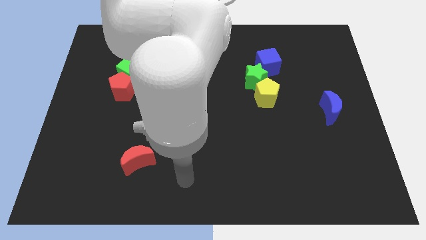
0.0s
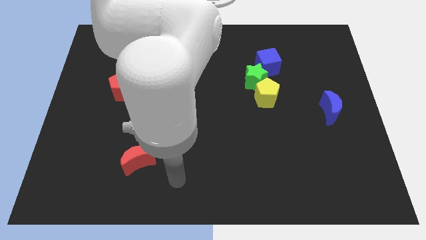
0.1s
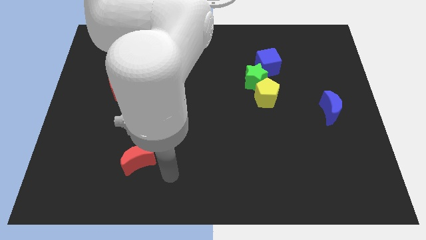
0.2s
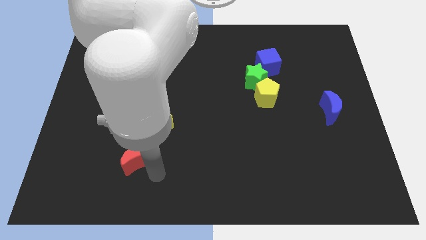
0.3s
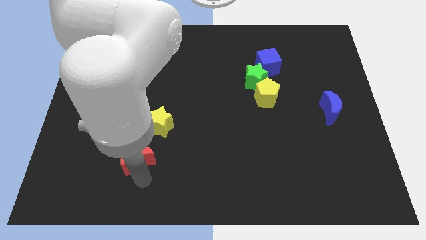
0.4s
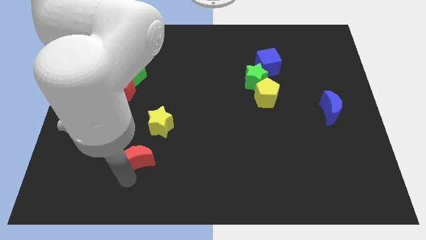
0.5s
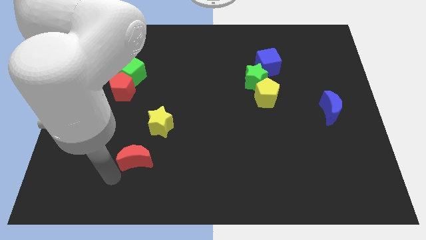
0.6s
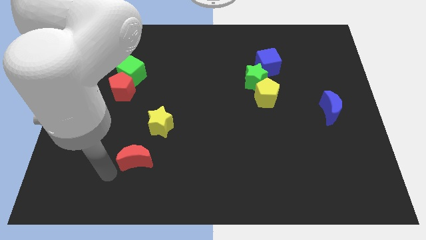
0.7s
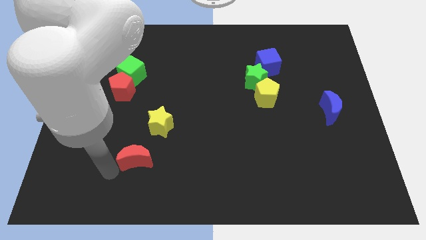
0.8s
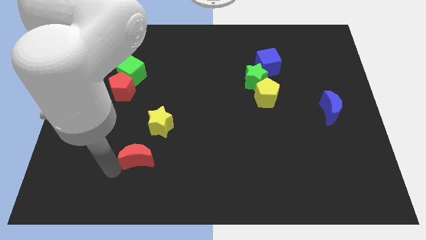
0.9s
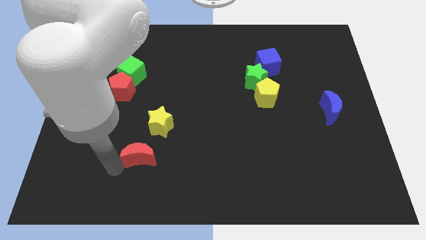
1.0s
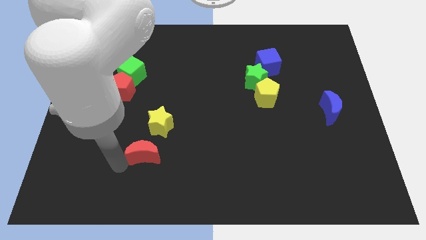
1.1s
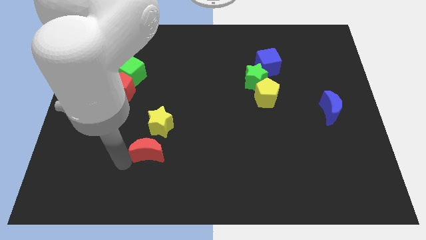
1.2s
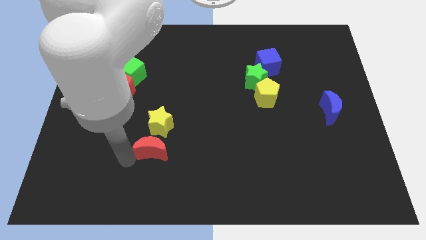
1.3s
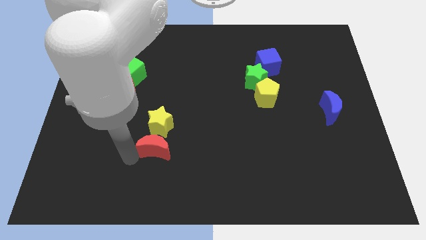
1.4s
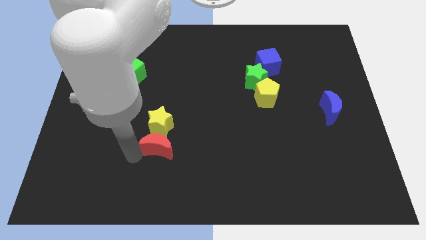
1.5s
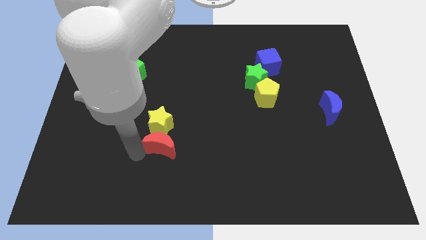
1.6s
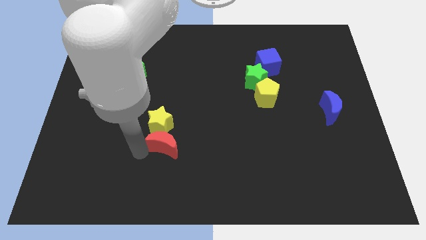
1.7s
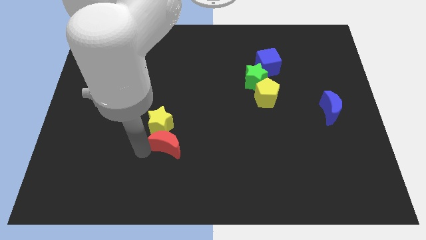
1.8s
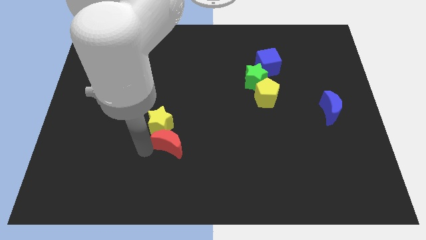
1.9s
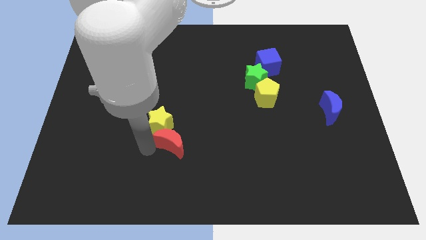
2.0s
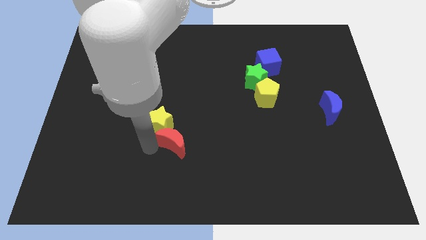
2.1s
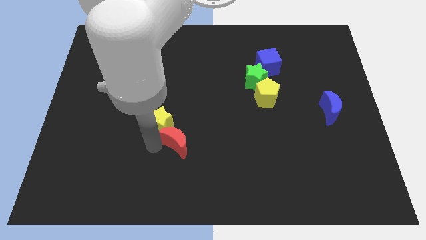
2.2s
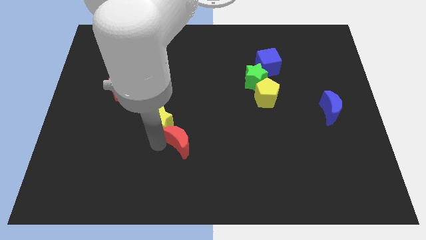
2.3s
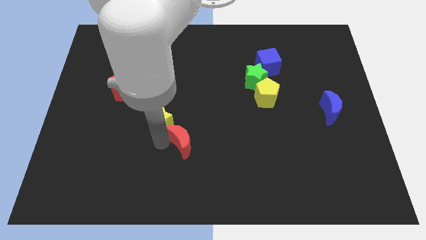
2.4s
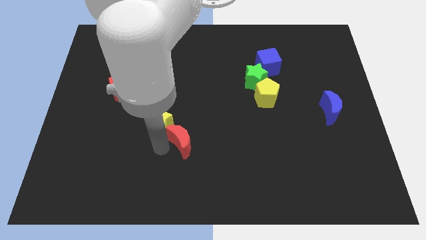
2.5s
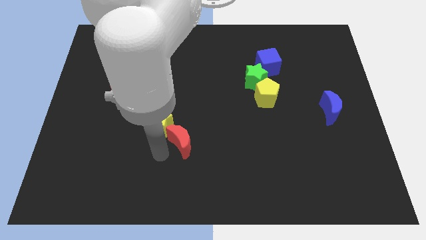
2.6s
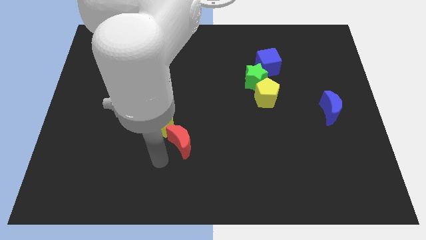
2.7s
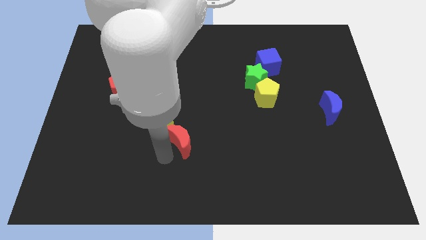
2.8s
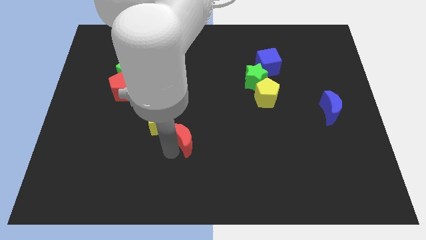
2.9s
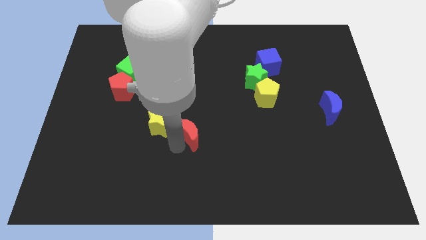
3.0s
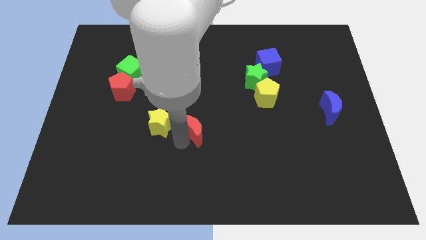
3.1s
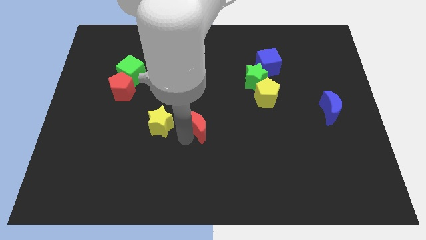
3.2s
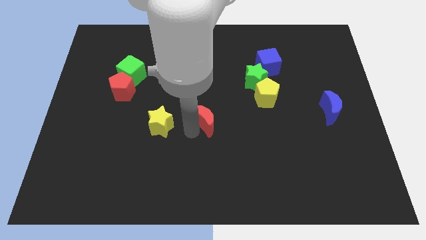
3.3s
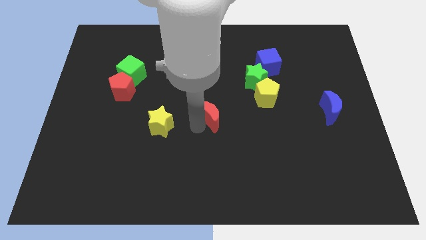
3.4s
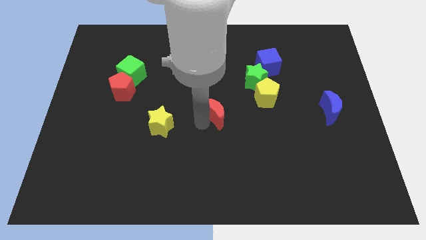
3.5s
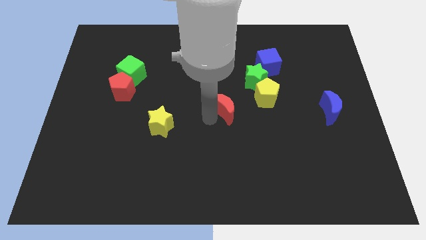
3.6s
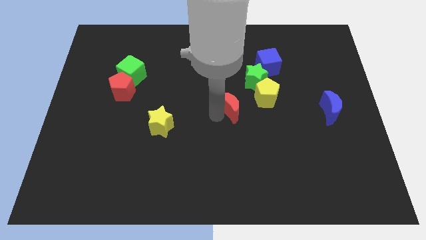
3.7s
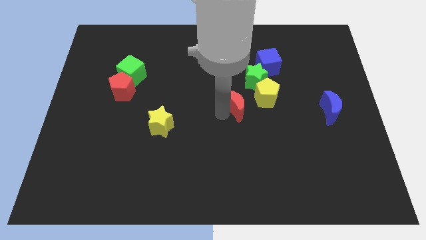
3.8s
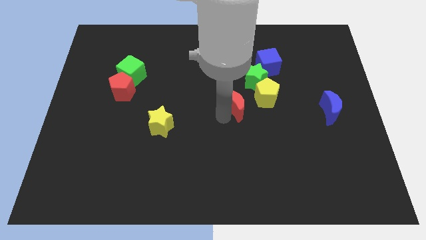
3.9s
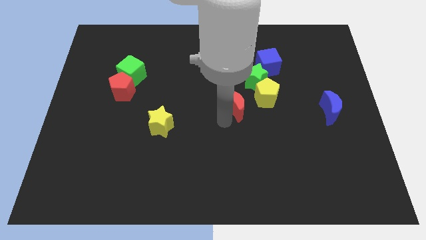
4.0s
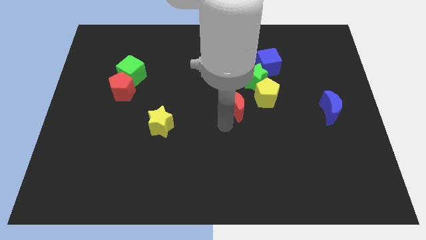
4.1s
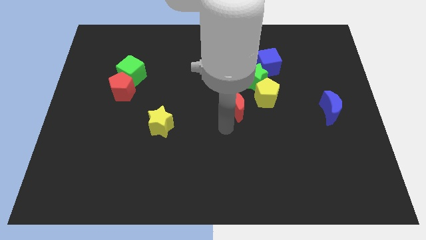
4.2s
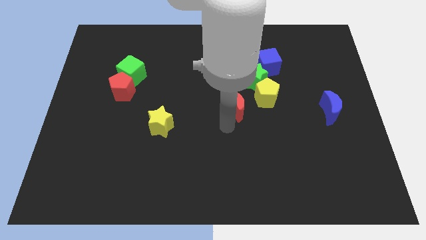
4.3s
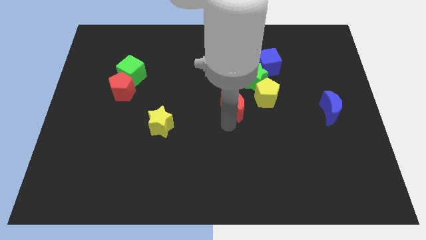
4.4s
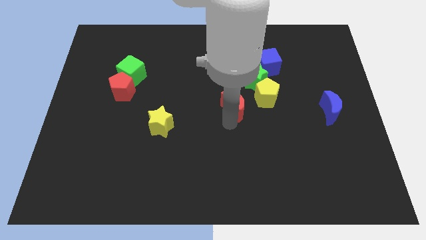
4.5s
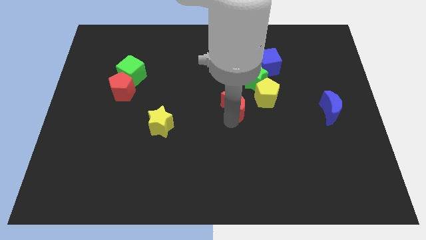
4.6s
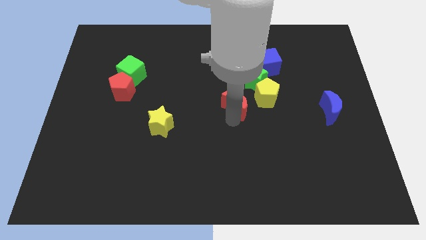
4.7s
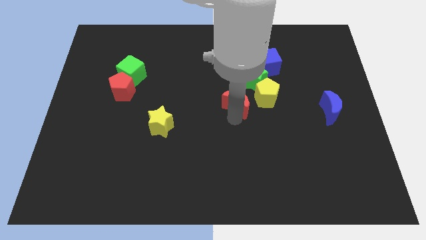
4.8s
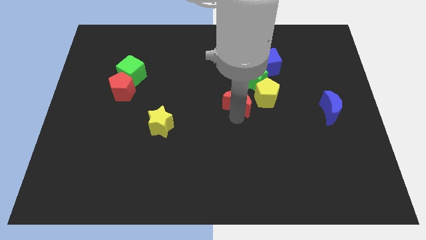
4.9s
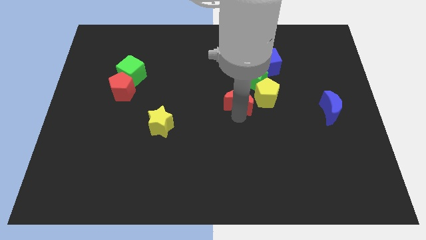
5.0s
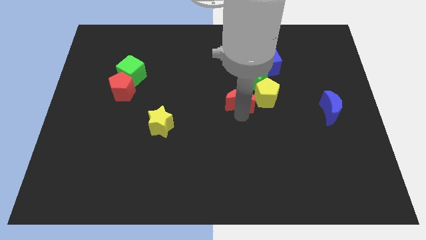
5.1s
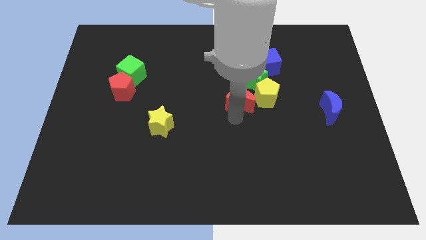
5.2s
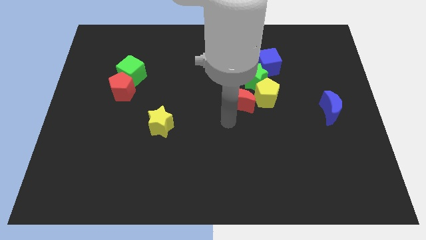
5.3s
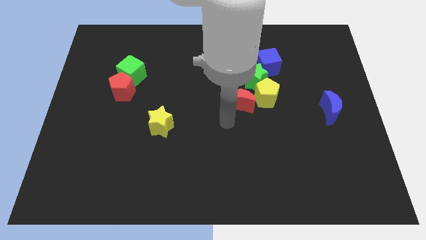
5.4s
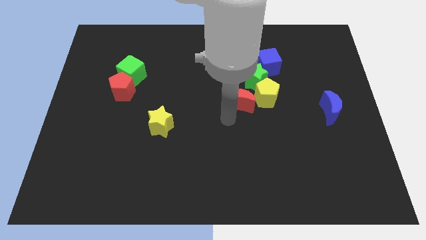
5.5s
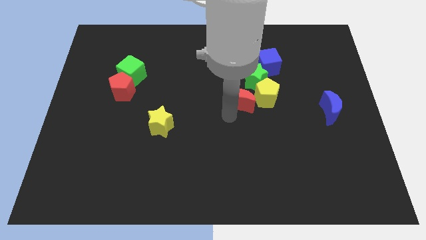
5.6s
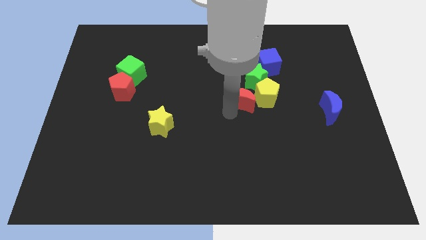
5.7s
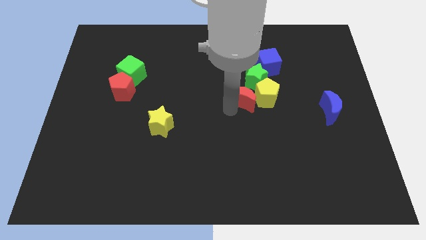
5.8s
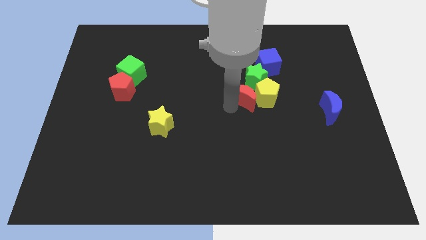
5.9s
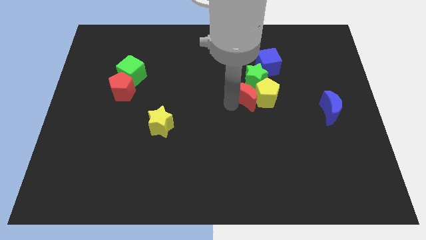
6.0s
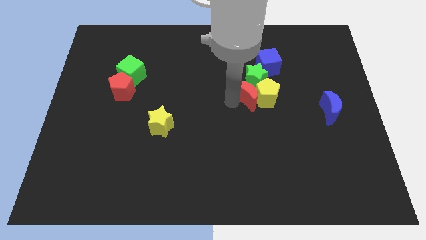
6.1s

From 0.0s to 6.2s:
slide the red moon to the green star
